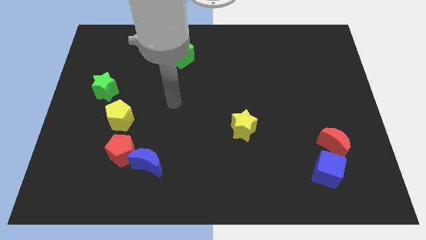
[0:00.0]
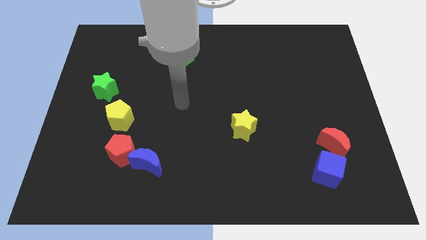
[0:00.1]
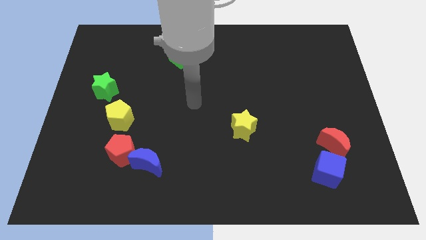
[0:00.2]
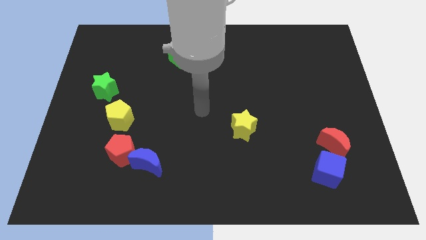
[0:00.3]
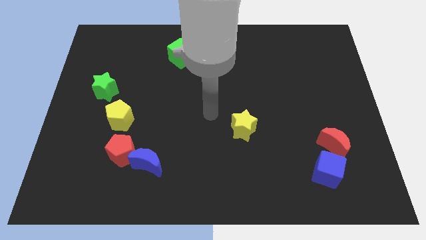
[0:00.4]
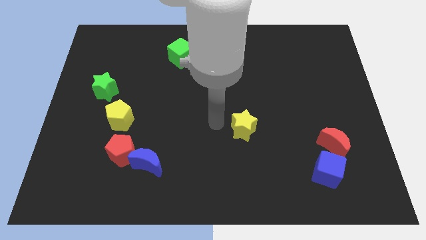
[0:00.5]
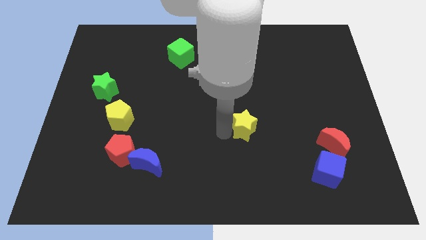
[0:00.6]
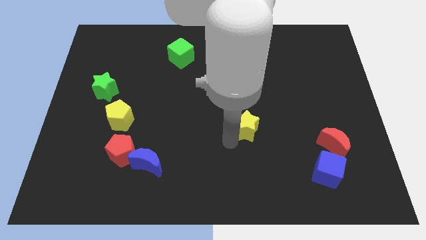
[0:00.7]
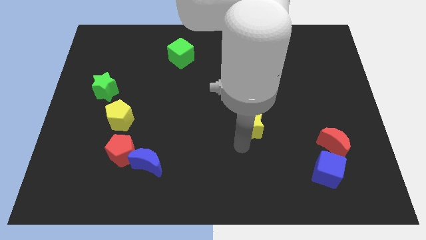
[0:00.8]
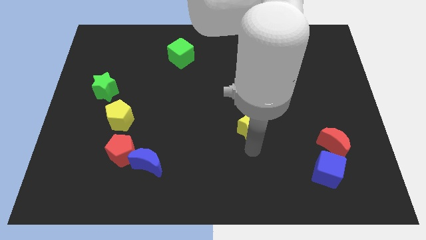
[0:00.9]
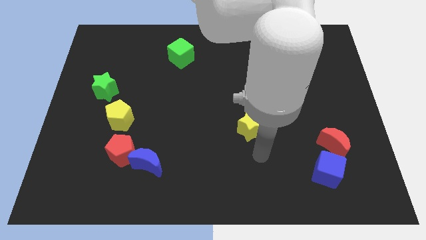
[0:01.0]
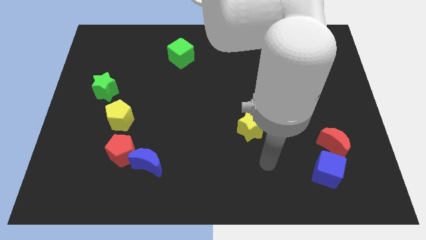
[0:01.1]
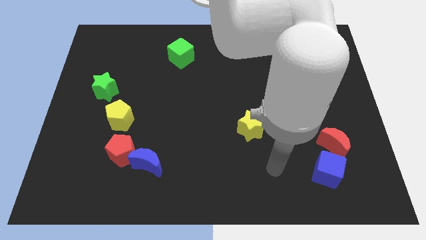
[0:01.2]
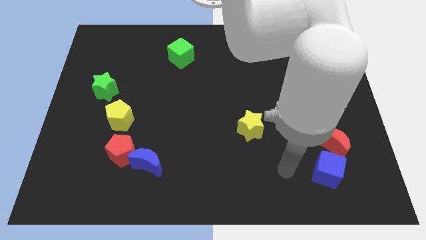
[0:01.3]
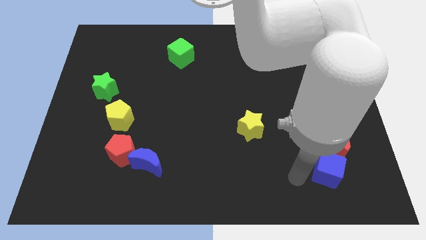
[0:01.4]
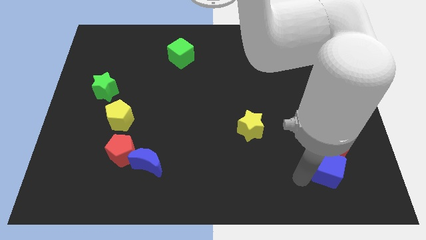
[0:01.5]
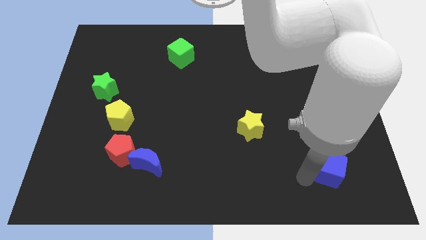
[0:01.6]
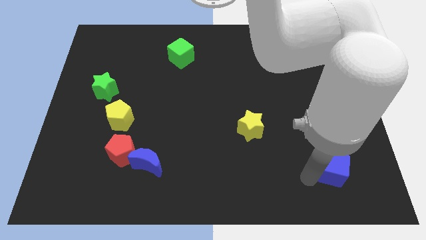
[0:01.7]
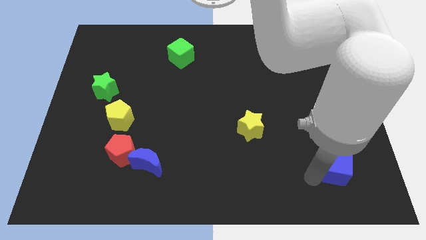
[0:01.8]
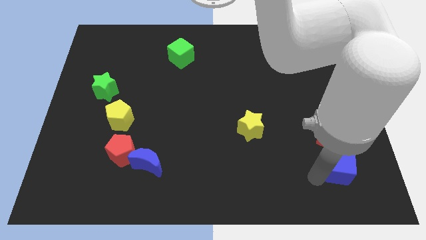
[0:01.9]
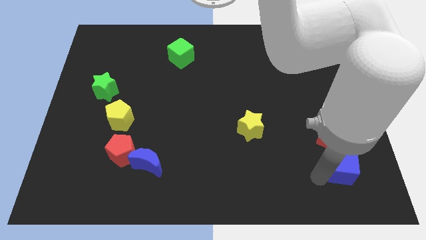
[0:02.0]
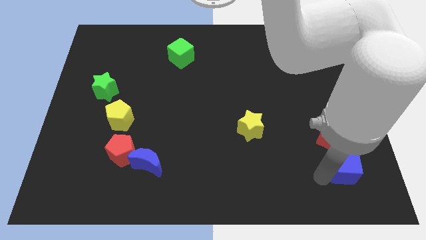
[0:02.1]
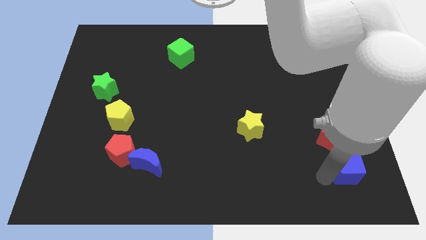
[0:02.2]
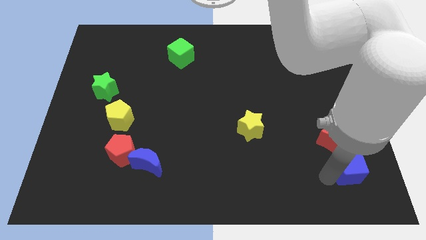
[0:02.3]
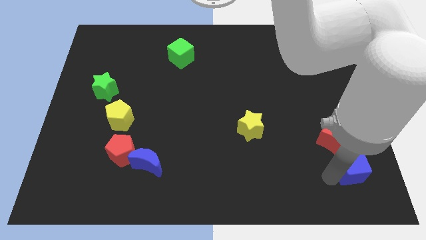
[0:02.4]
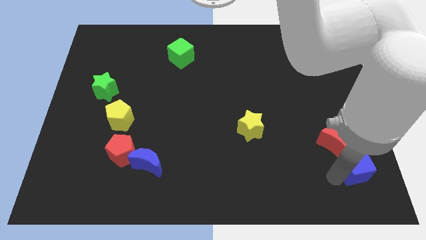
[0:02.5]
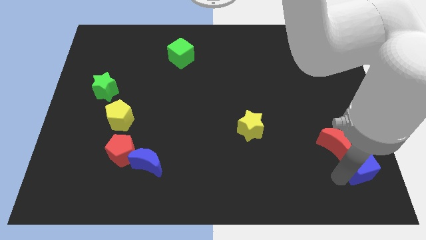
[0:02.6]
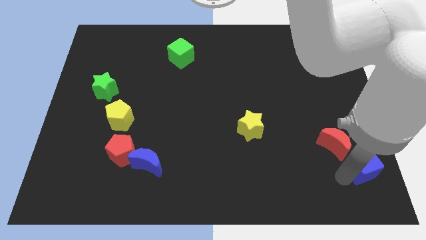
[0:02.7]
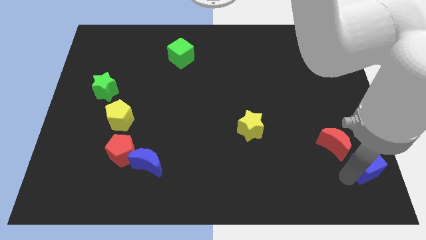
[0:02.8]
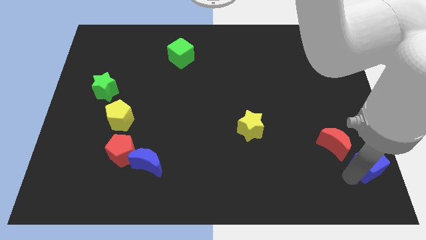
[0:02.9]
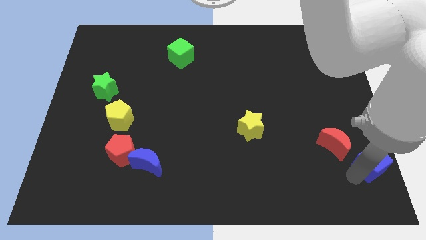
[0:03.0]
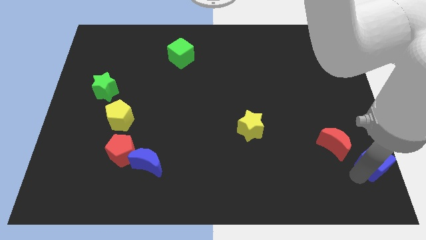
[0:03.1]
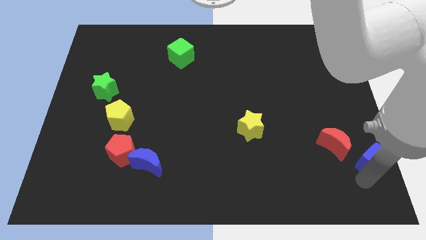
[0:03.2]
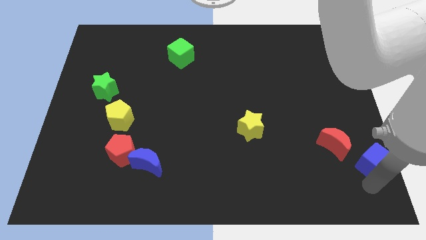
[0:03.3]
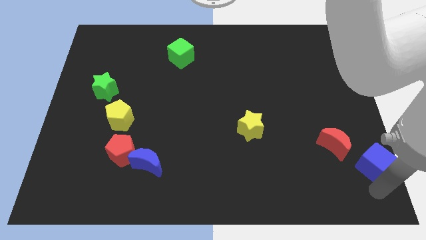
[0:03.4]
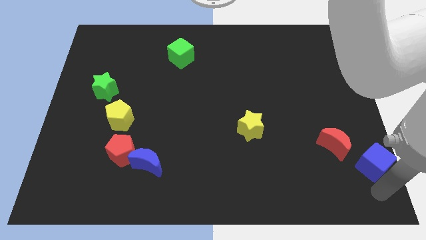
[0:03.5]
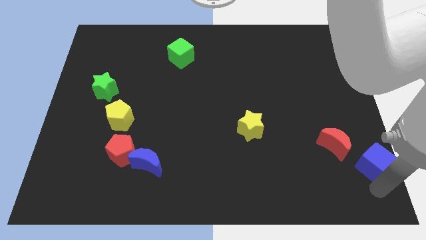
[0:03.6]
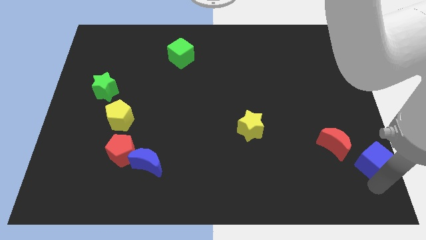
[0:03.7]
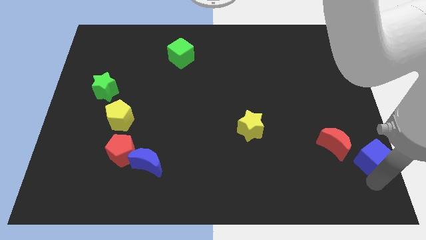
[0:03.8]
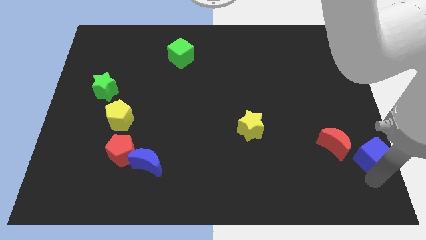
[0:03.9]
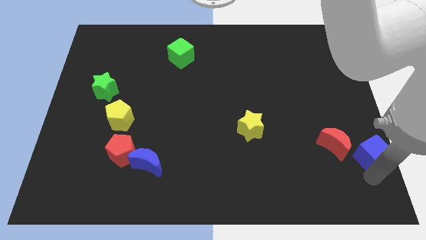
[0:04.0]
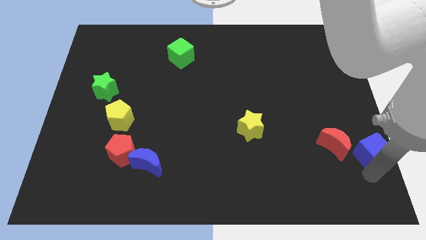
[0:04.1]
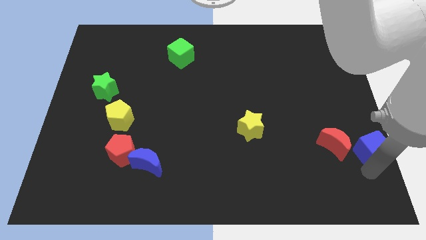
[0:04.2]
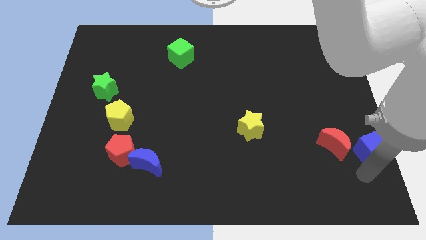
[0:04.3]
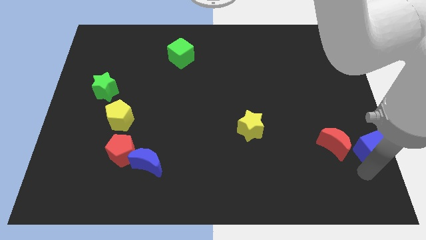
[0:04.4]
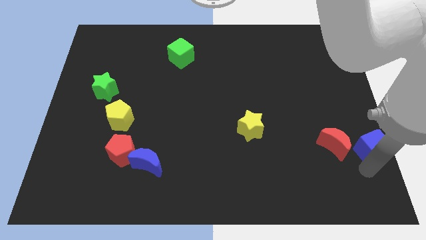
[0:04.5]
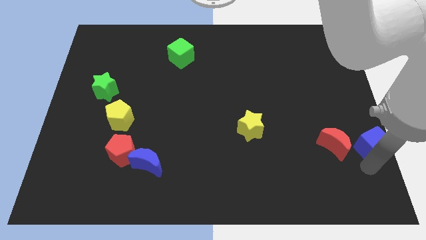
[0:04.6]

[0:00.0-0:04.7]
move the blue cube to the center right

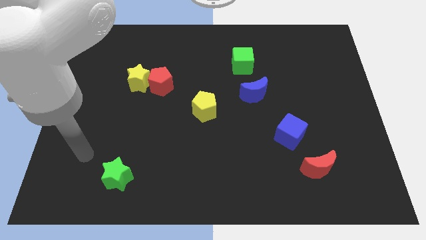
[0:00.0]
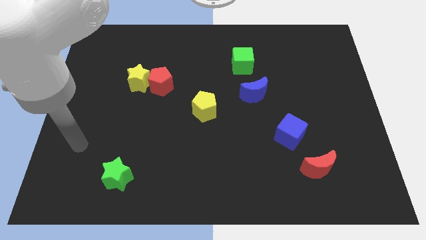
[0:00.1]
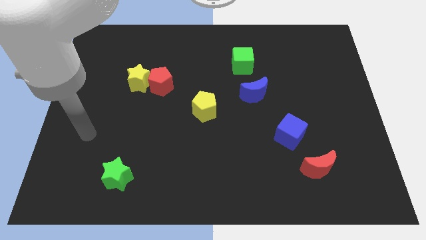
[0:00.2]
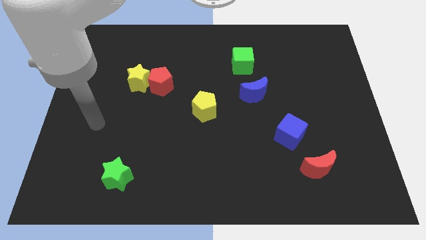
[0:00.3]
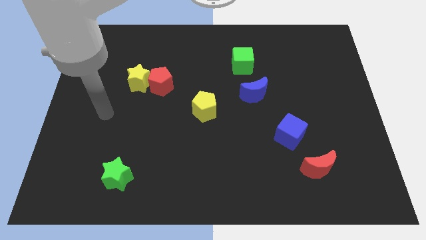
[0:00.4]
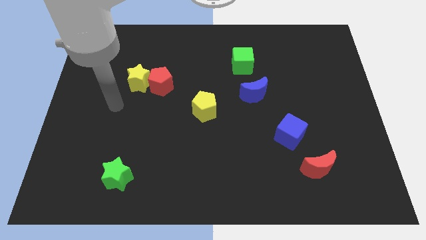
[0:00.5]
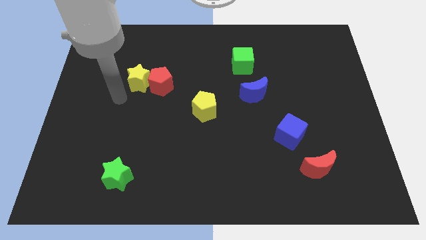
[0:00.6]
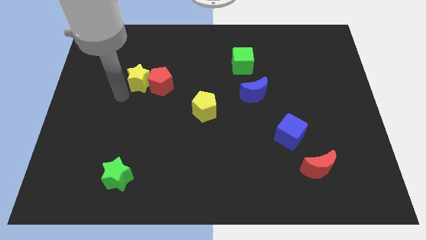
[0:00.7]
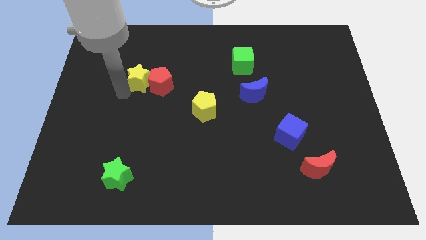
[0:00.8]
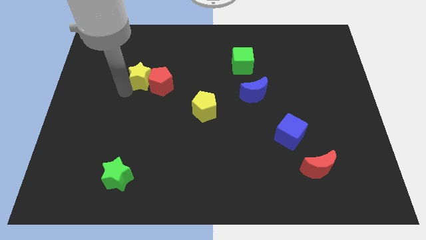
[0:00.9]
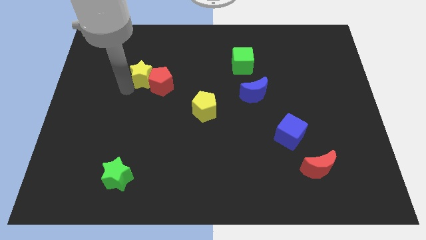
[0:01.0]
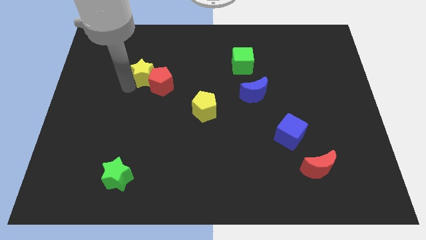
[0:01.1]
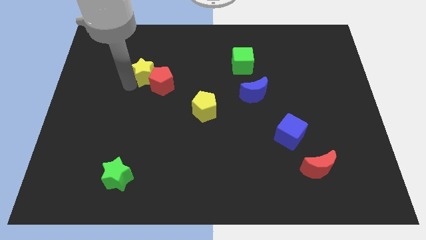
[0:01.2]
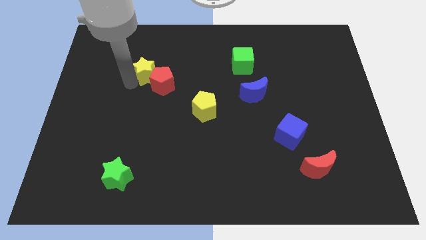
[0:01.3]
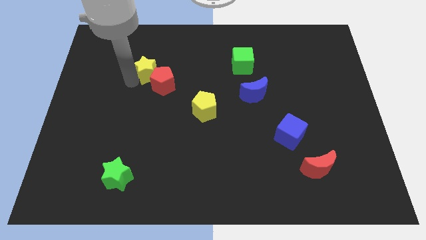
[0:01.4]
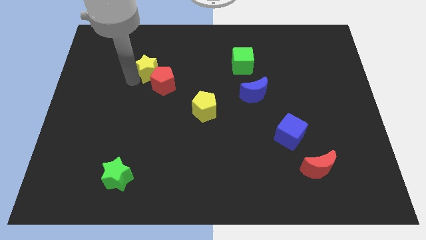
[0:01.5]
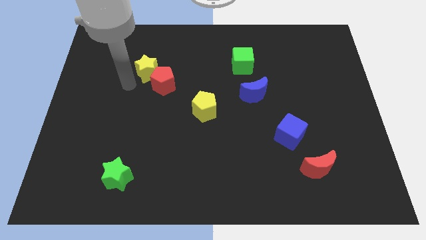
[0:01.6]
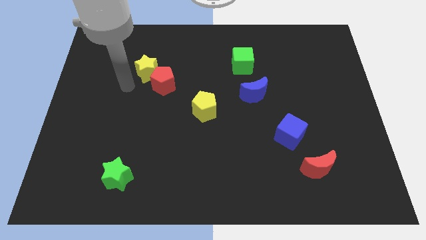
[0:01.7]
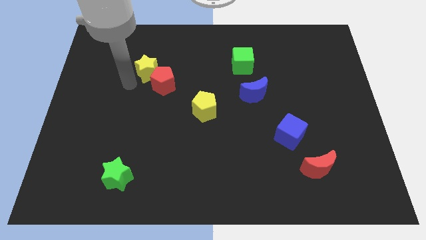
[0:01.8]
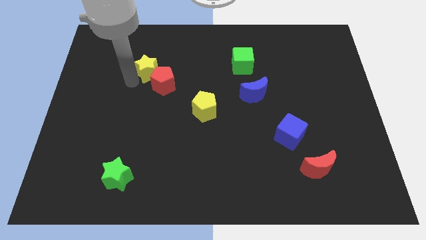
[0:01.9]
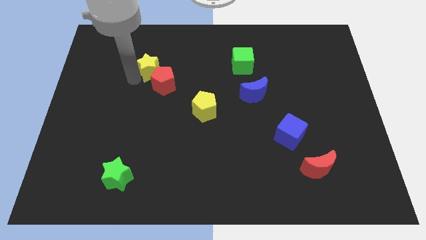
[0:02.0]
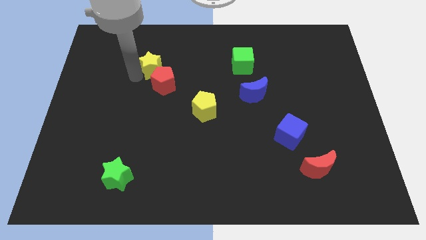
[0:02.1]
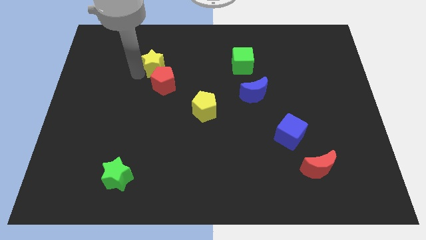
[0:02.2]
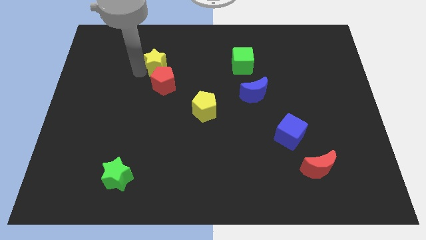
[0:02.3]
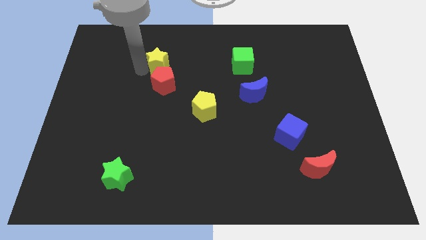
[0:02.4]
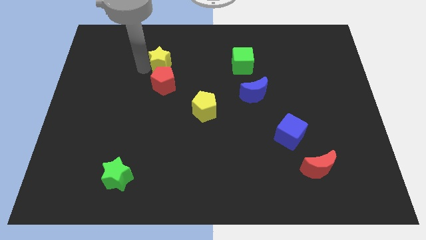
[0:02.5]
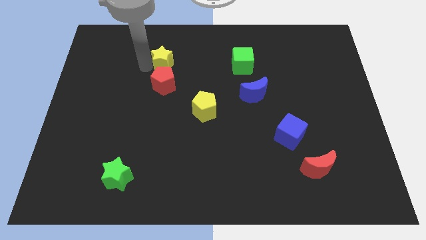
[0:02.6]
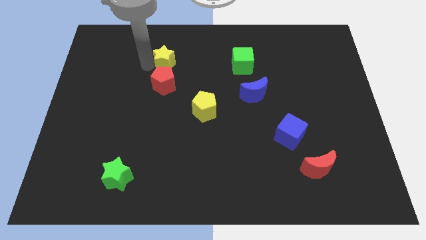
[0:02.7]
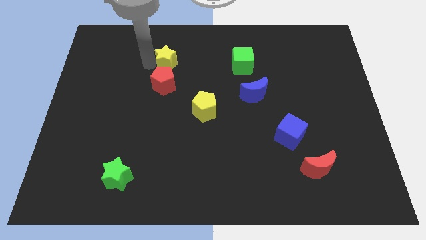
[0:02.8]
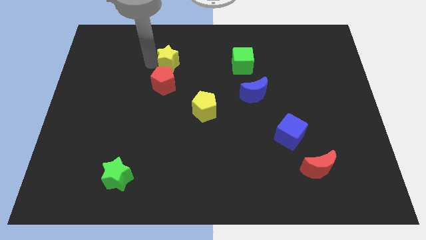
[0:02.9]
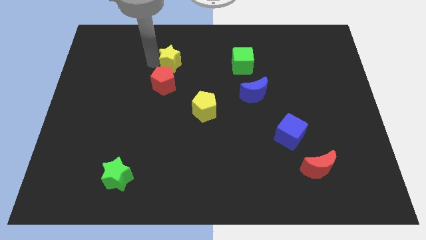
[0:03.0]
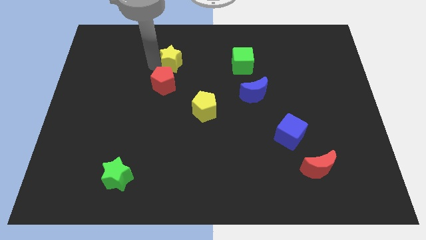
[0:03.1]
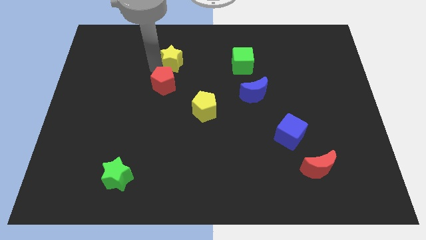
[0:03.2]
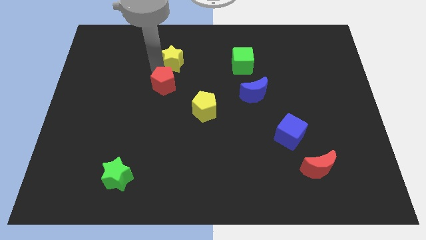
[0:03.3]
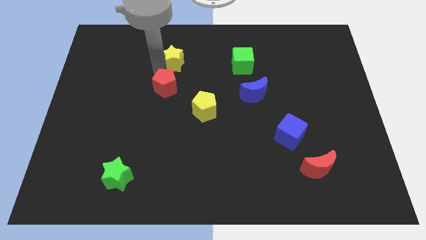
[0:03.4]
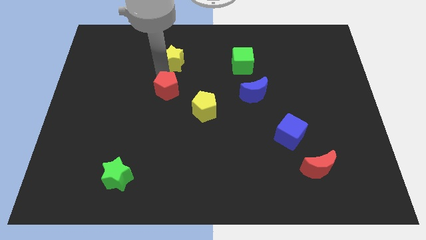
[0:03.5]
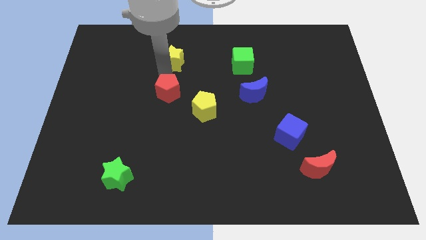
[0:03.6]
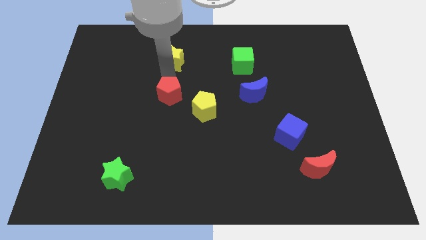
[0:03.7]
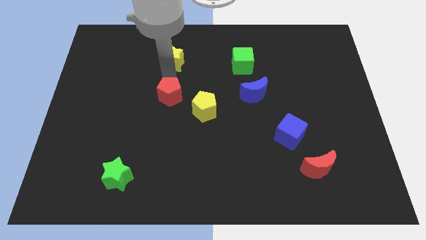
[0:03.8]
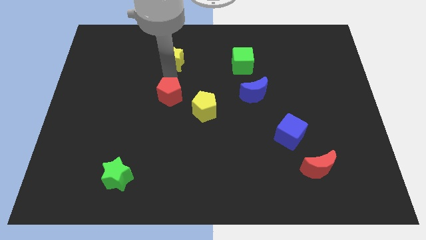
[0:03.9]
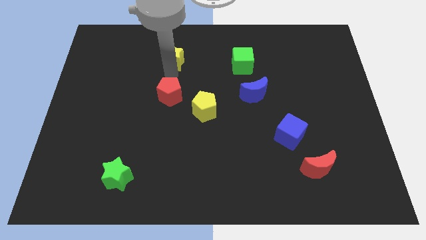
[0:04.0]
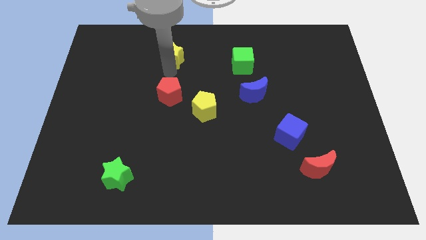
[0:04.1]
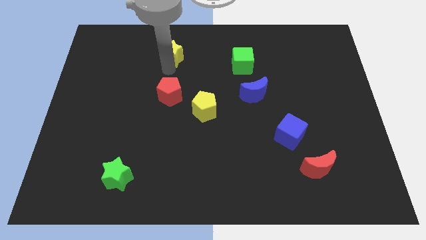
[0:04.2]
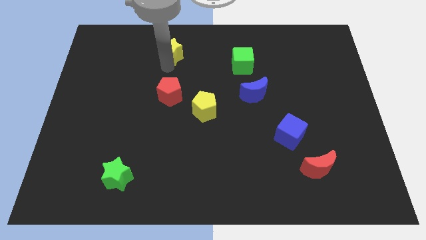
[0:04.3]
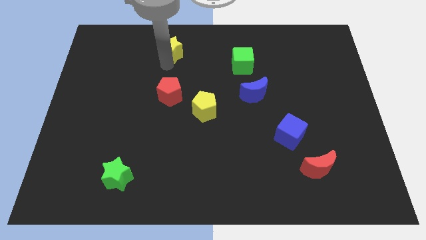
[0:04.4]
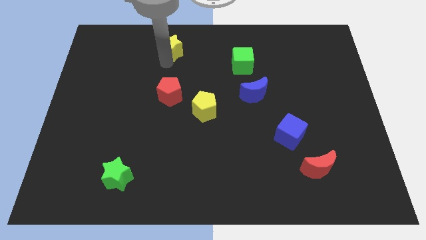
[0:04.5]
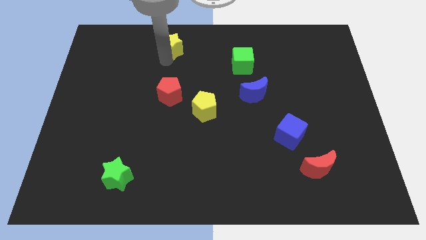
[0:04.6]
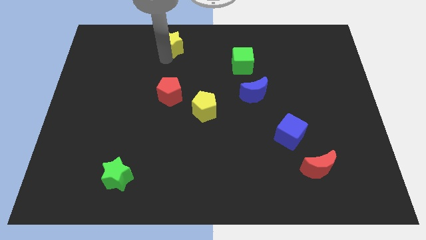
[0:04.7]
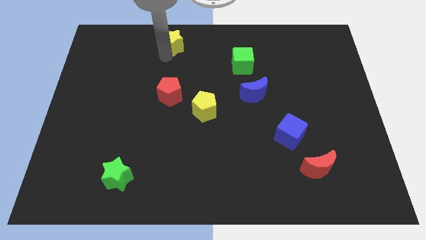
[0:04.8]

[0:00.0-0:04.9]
push the yellow star to the top side
